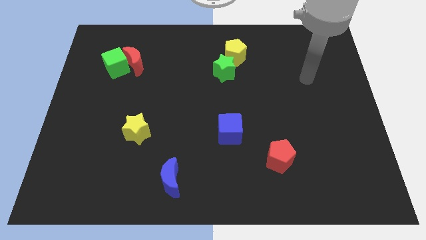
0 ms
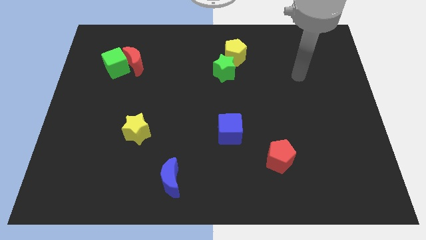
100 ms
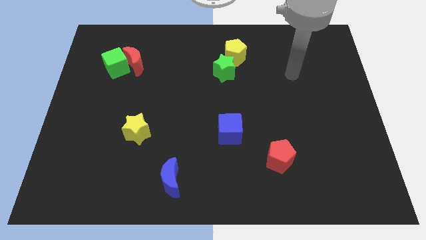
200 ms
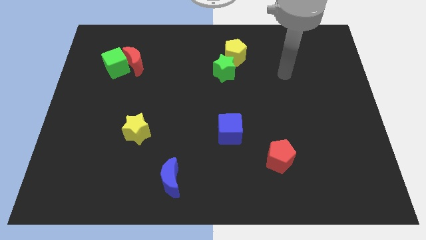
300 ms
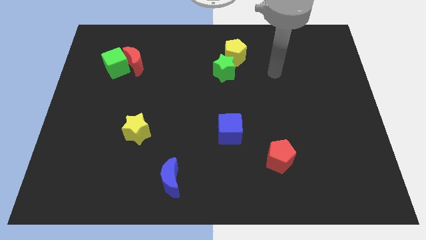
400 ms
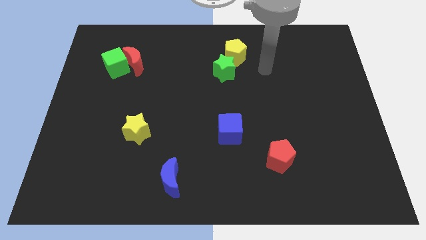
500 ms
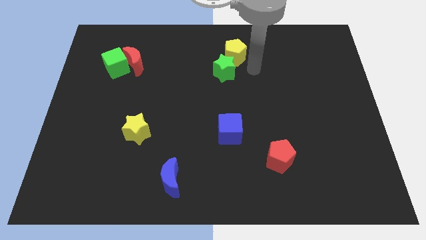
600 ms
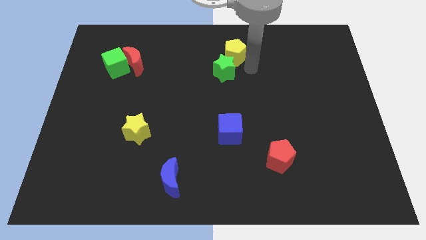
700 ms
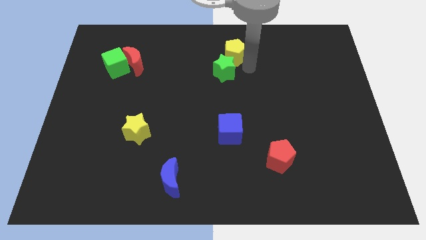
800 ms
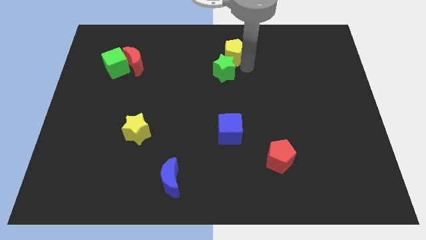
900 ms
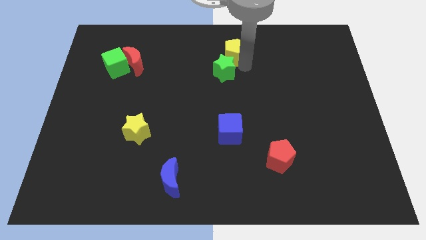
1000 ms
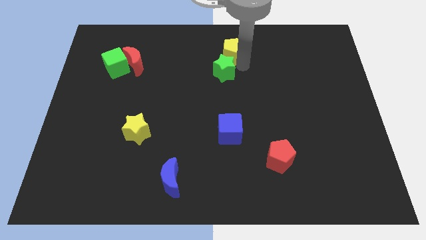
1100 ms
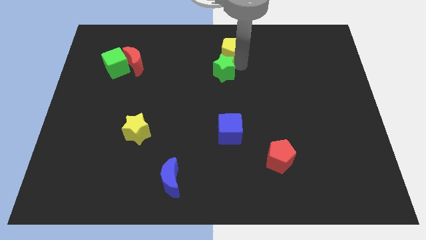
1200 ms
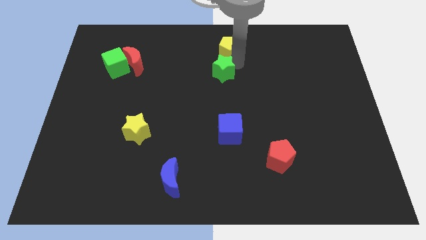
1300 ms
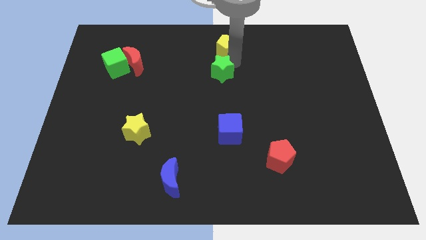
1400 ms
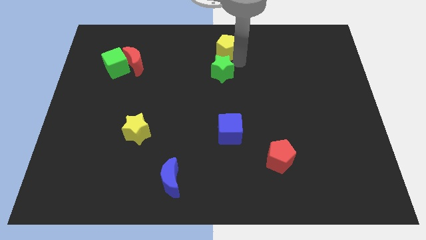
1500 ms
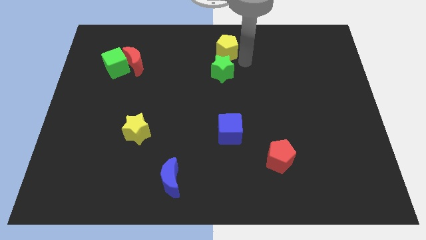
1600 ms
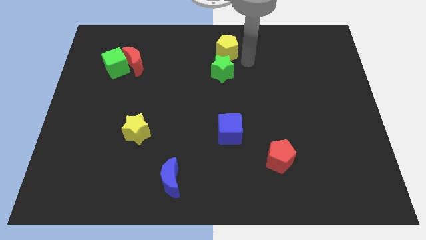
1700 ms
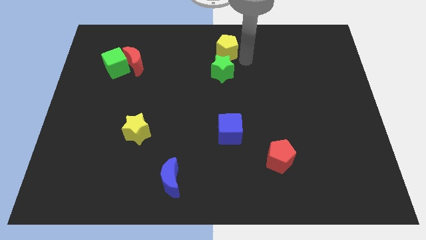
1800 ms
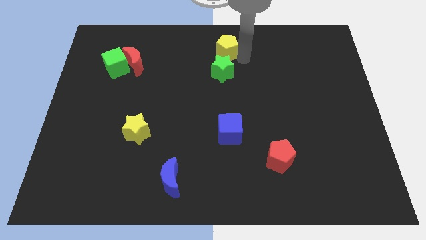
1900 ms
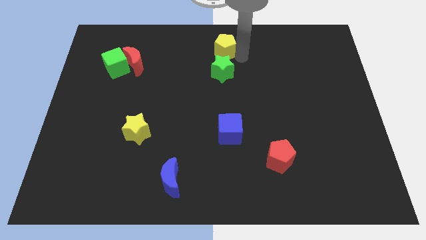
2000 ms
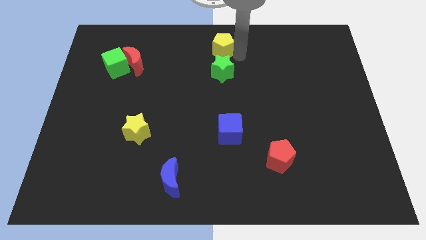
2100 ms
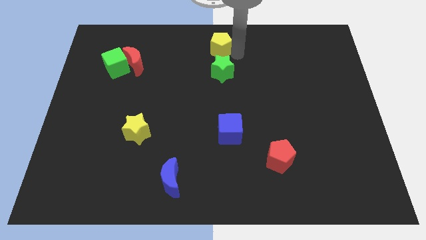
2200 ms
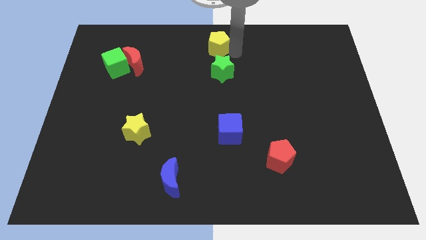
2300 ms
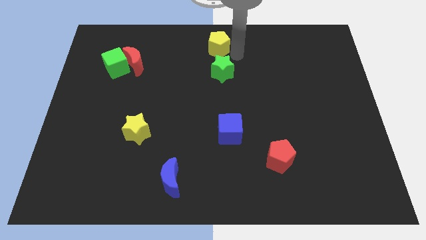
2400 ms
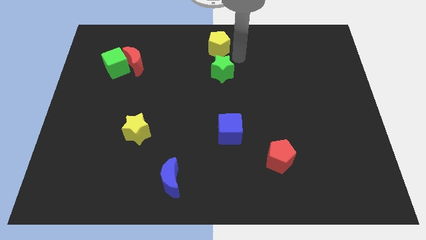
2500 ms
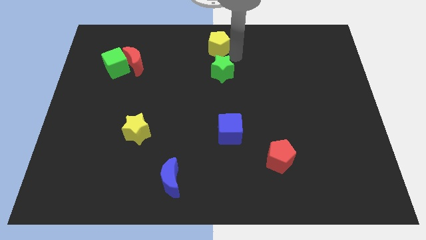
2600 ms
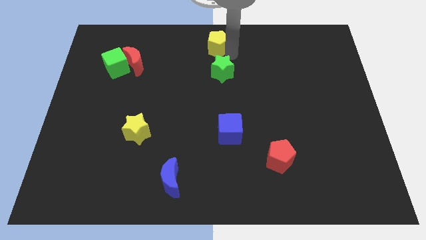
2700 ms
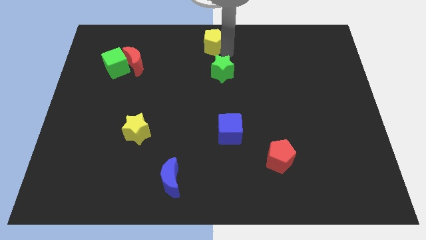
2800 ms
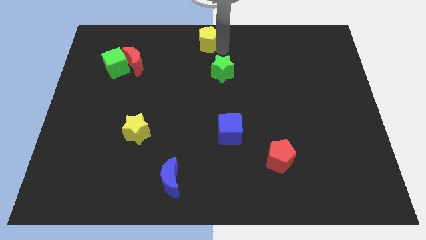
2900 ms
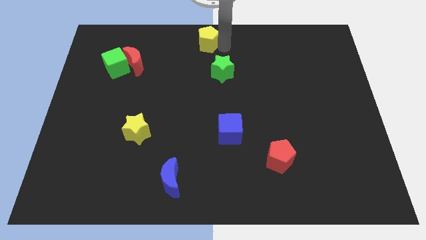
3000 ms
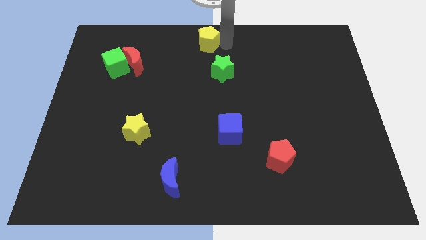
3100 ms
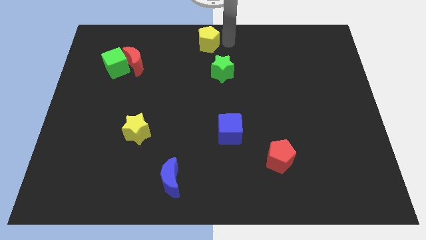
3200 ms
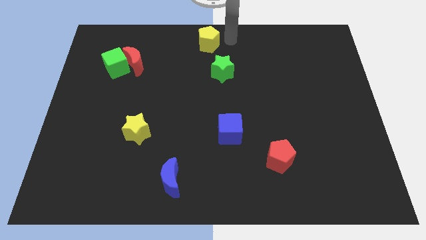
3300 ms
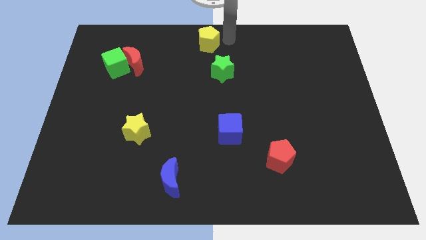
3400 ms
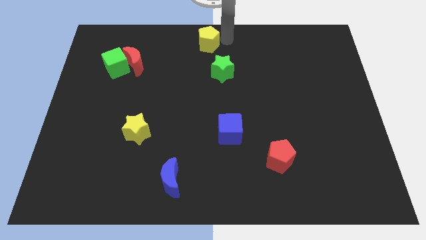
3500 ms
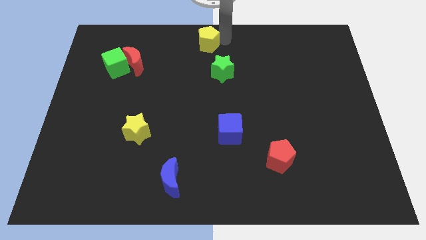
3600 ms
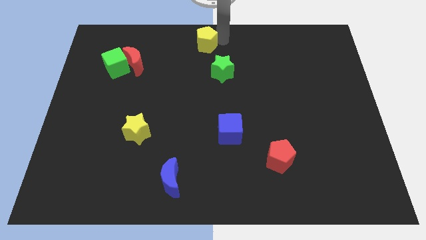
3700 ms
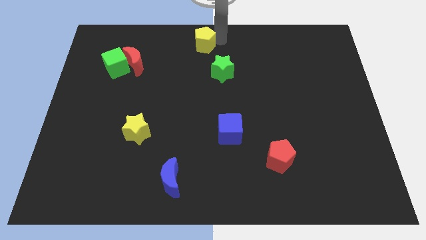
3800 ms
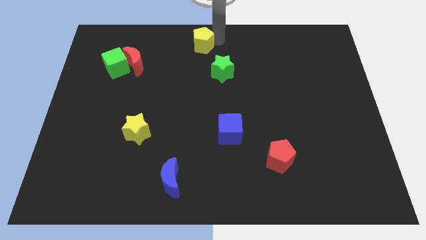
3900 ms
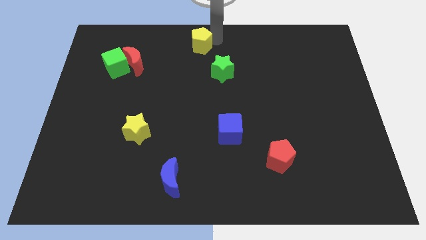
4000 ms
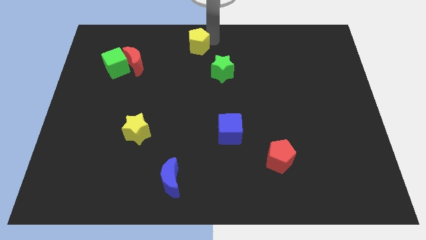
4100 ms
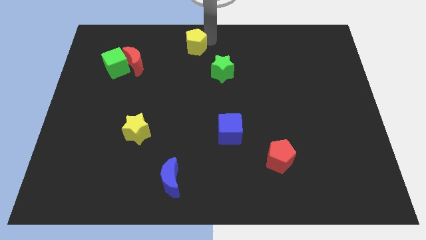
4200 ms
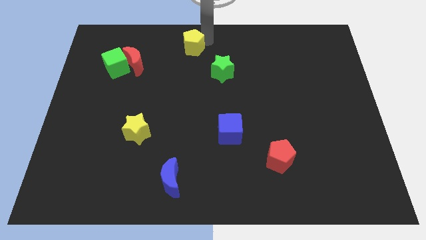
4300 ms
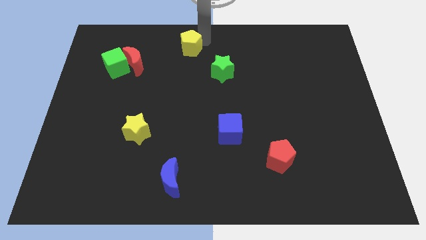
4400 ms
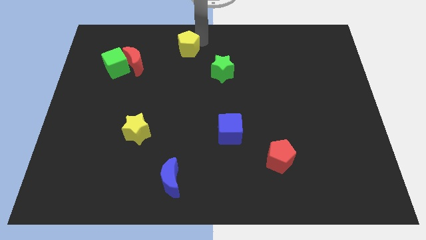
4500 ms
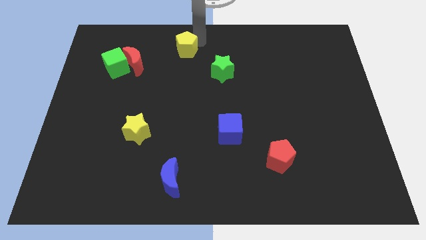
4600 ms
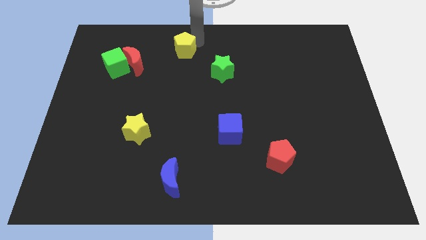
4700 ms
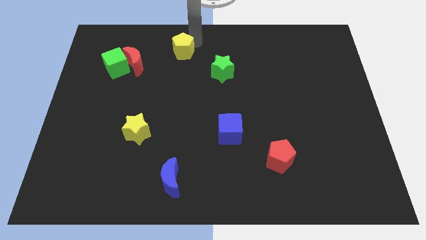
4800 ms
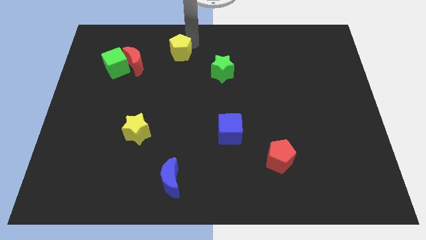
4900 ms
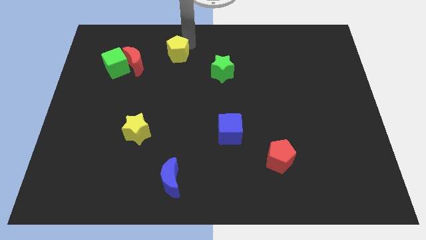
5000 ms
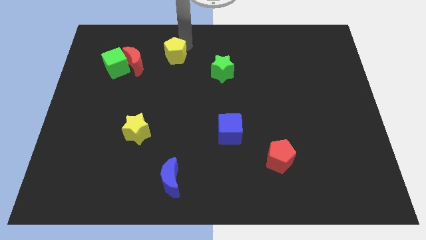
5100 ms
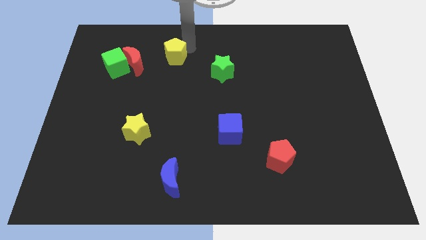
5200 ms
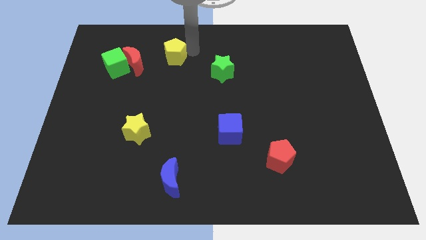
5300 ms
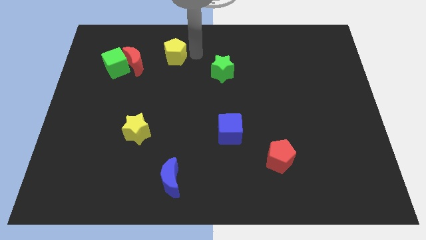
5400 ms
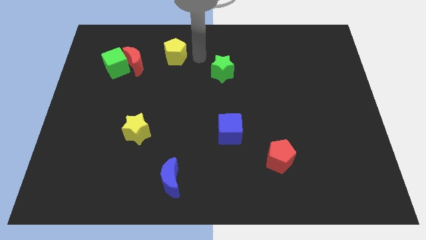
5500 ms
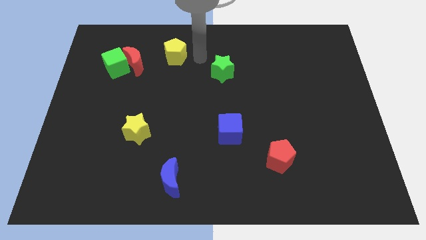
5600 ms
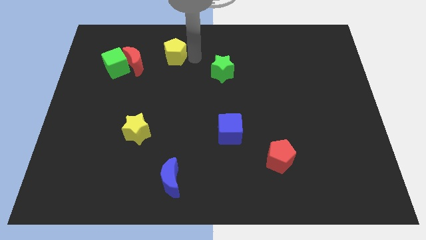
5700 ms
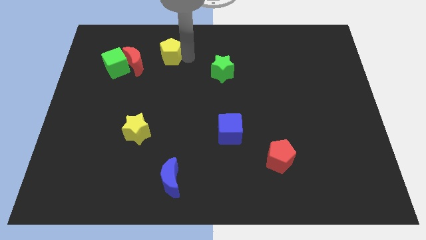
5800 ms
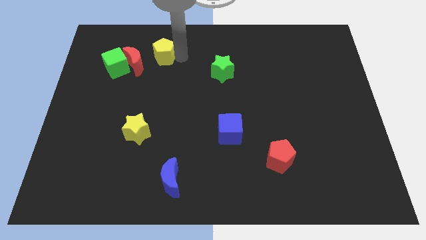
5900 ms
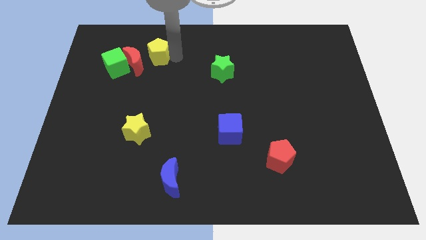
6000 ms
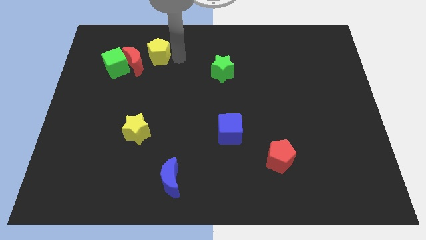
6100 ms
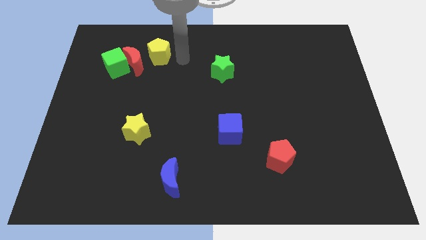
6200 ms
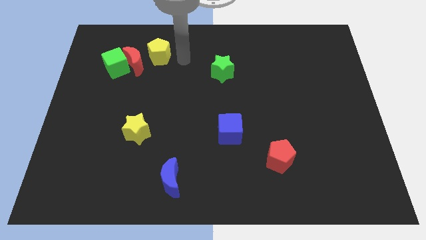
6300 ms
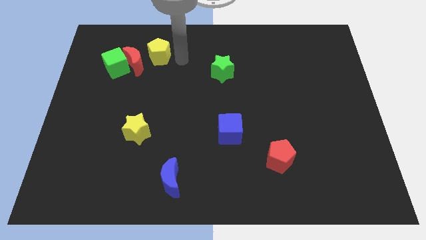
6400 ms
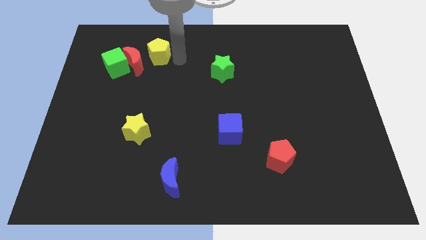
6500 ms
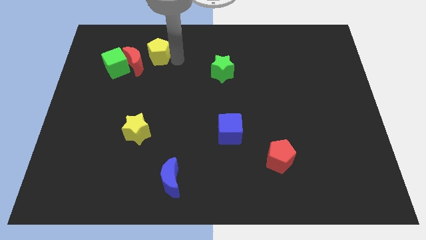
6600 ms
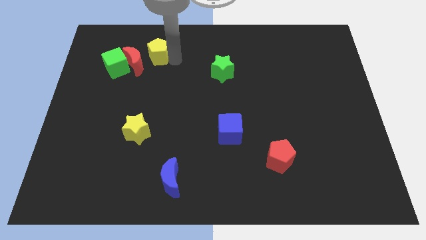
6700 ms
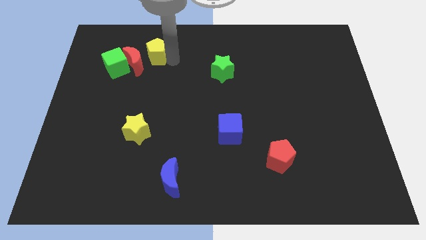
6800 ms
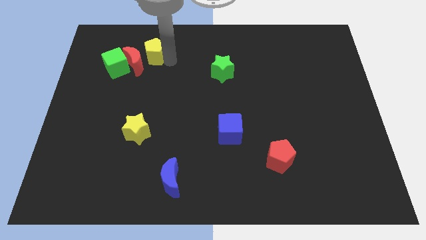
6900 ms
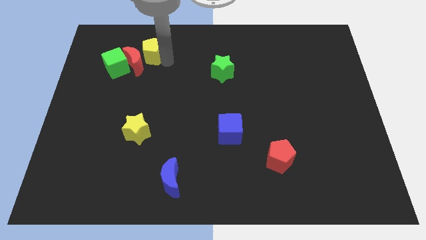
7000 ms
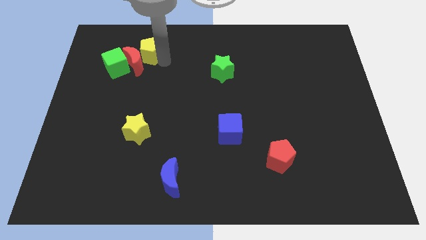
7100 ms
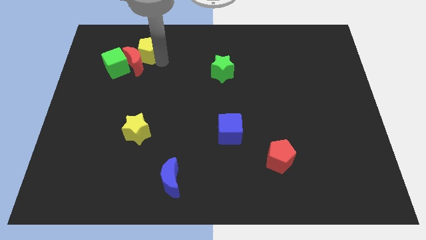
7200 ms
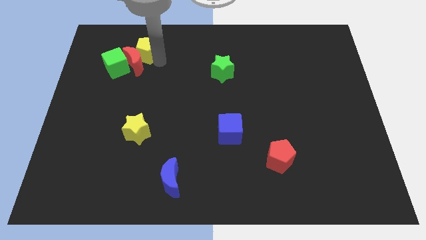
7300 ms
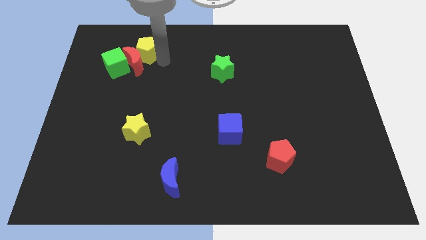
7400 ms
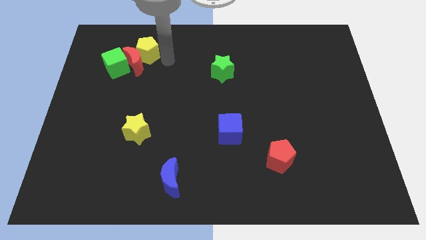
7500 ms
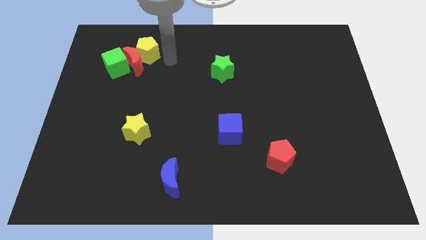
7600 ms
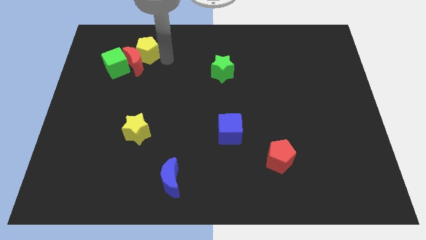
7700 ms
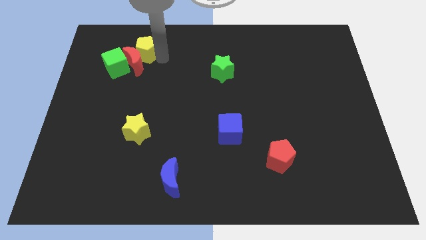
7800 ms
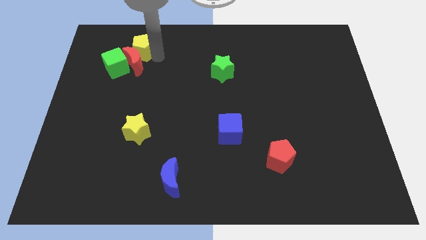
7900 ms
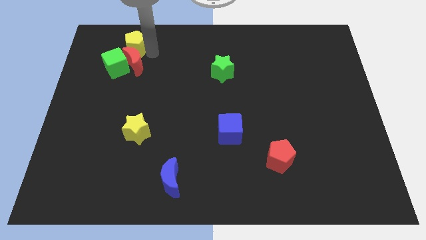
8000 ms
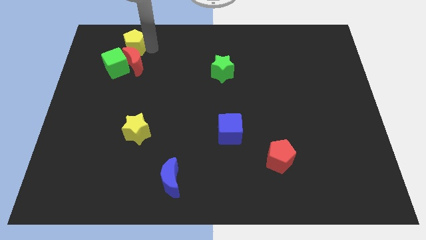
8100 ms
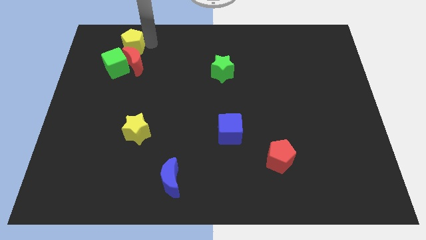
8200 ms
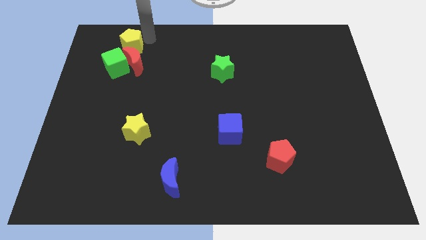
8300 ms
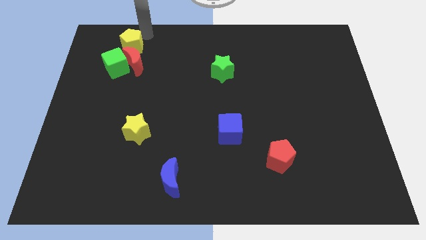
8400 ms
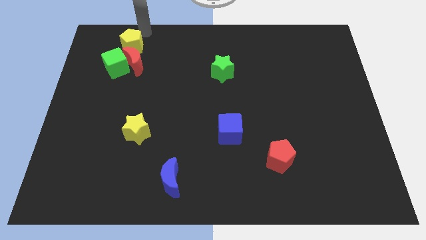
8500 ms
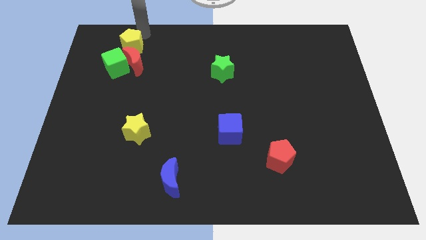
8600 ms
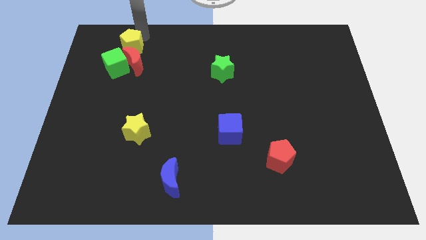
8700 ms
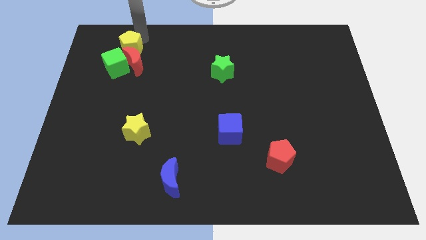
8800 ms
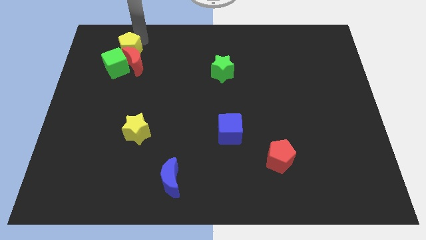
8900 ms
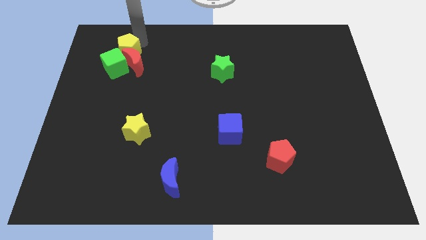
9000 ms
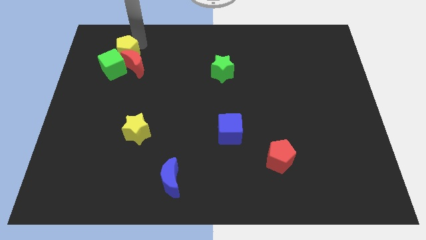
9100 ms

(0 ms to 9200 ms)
slide the yellow pentagon towards the green cube
